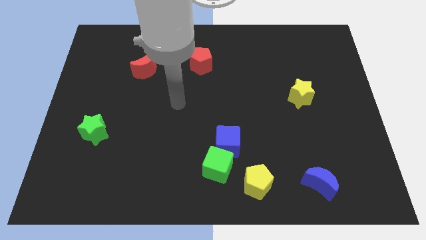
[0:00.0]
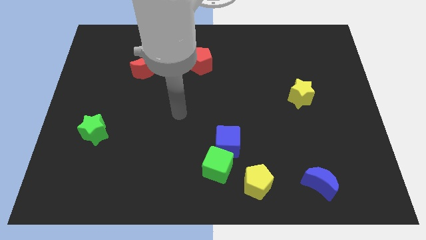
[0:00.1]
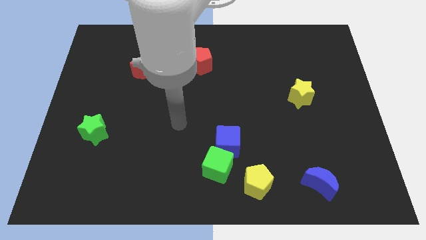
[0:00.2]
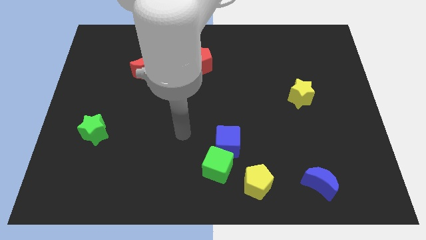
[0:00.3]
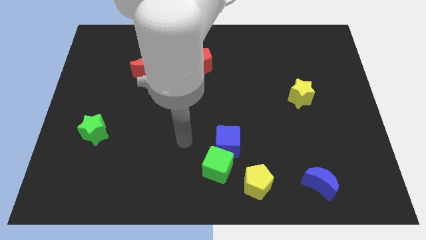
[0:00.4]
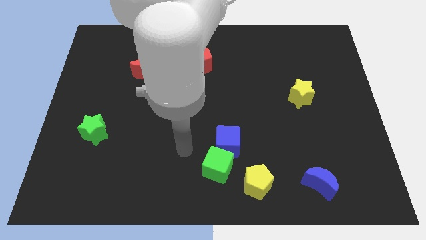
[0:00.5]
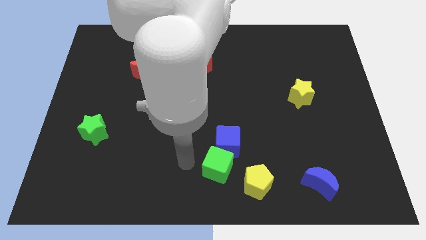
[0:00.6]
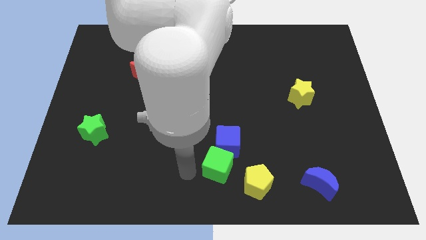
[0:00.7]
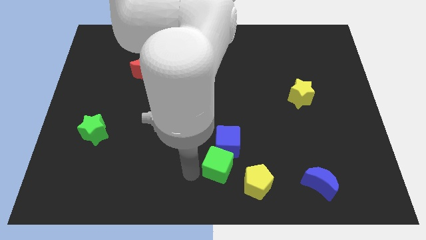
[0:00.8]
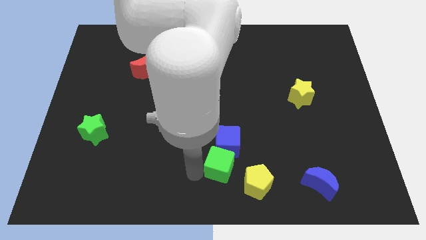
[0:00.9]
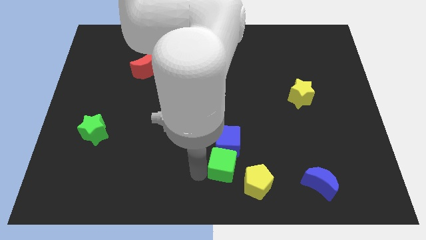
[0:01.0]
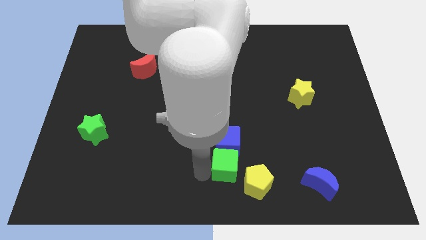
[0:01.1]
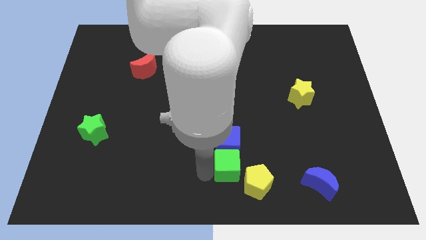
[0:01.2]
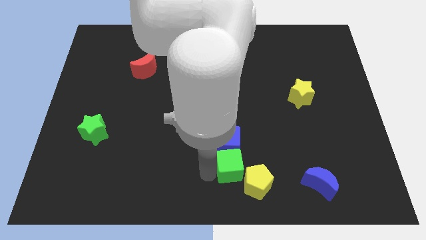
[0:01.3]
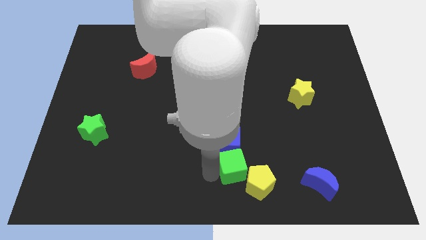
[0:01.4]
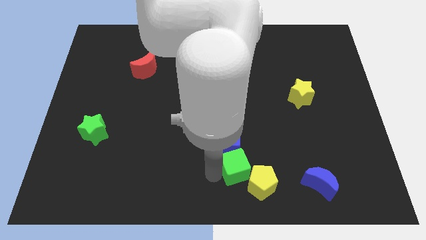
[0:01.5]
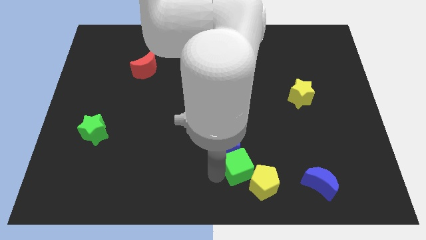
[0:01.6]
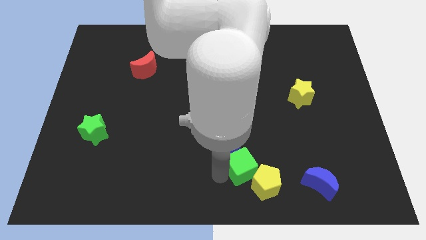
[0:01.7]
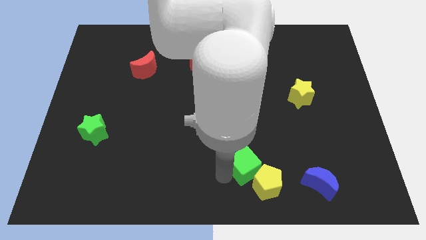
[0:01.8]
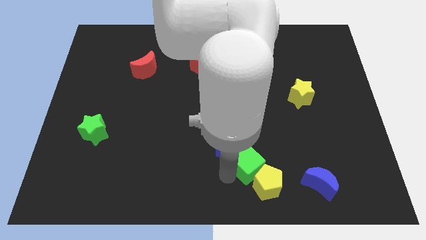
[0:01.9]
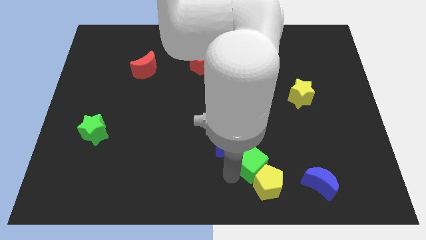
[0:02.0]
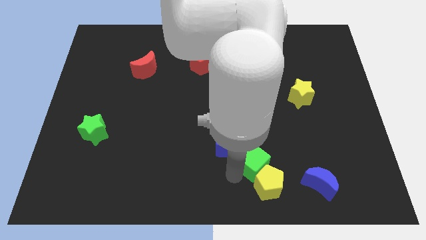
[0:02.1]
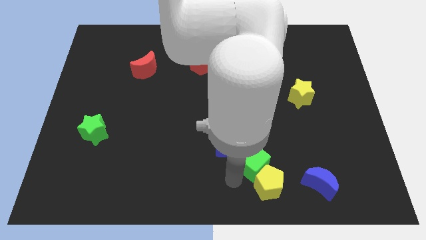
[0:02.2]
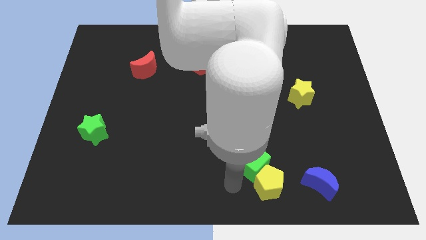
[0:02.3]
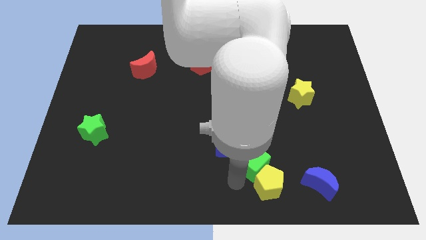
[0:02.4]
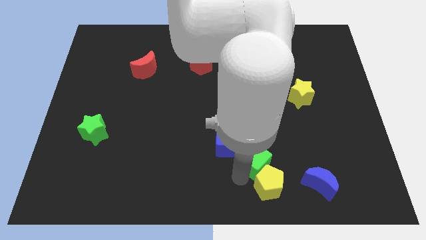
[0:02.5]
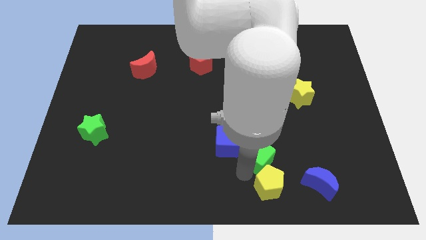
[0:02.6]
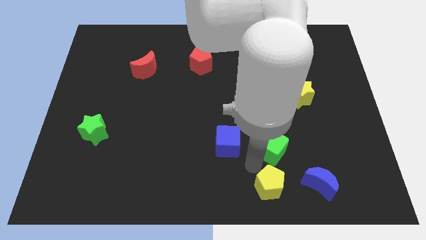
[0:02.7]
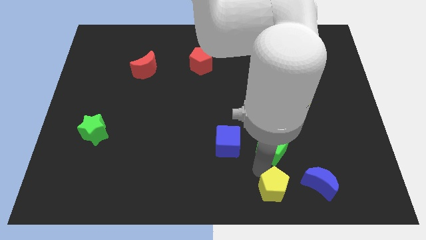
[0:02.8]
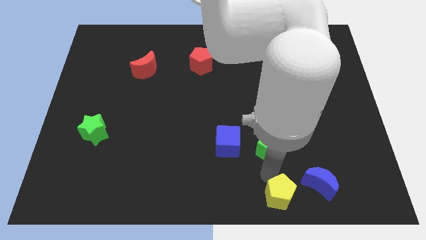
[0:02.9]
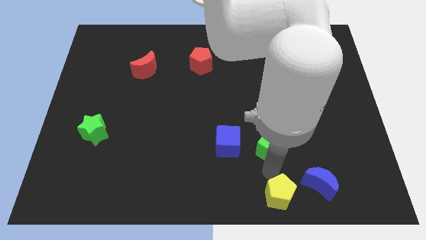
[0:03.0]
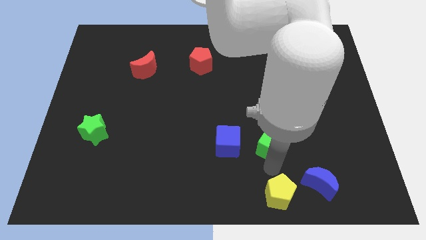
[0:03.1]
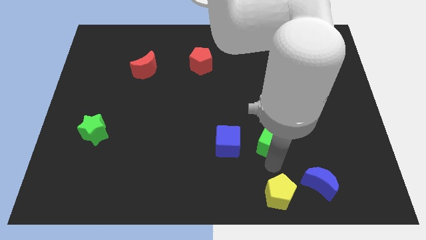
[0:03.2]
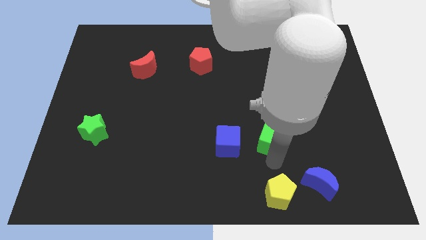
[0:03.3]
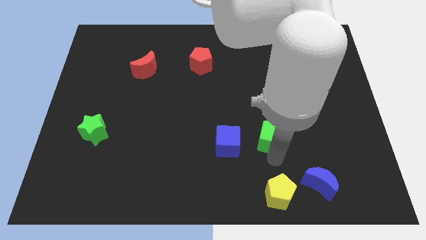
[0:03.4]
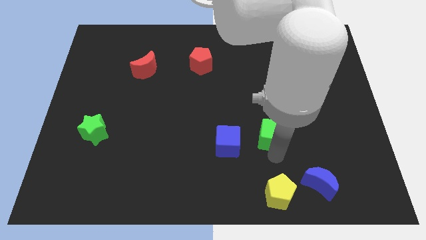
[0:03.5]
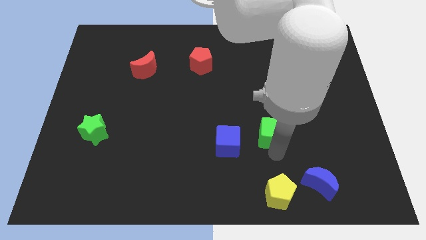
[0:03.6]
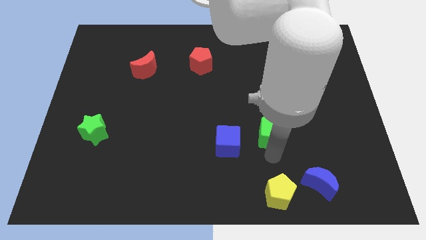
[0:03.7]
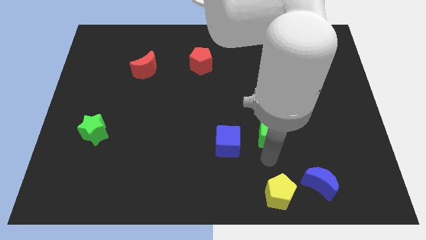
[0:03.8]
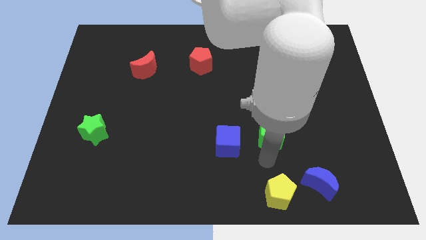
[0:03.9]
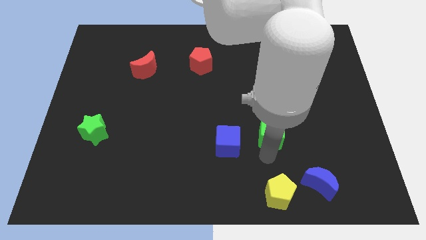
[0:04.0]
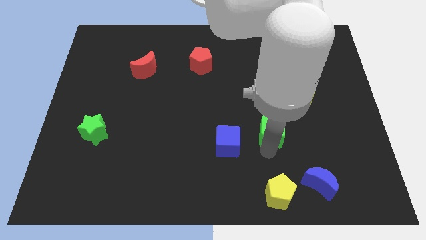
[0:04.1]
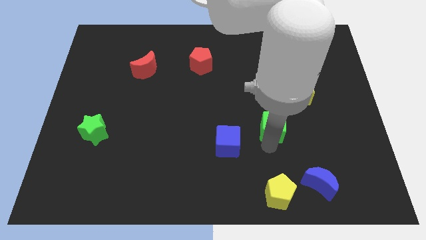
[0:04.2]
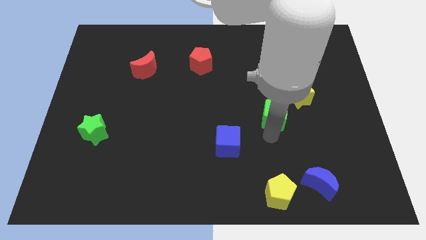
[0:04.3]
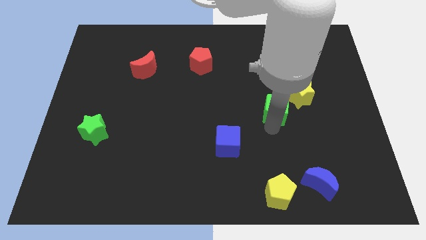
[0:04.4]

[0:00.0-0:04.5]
slide the green cube diagonally up and right

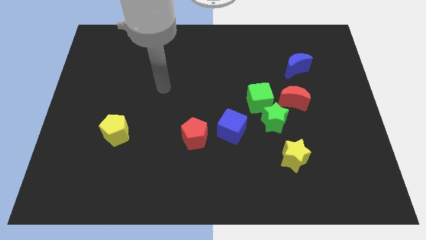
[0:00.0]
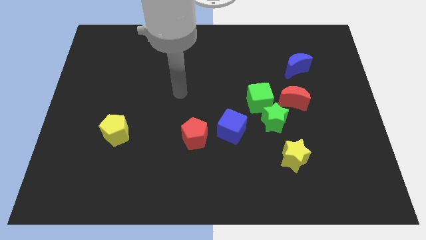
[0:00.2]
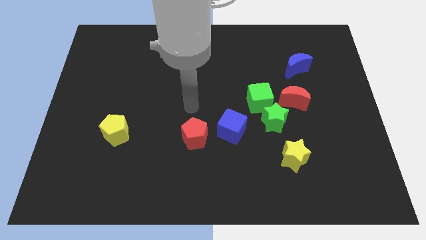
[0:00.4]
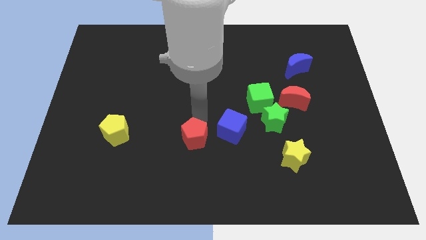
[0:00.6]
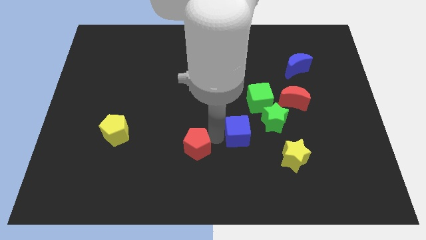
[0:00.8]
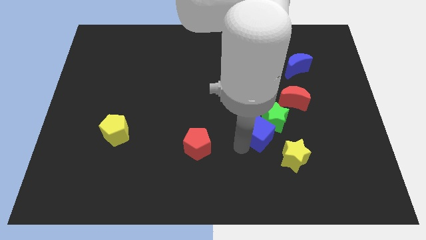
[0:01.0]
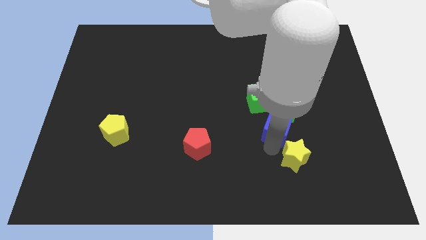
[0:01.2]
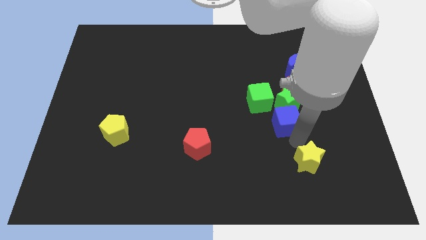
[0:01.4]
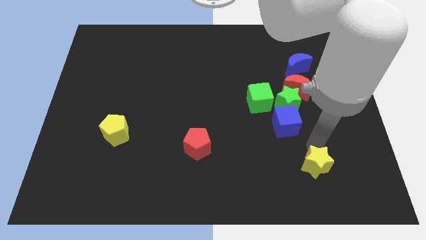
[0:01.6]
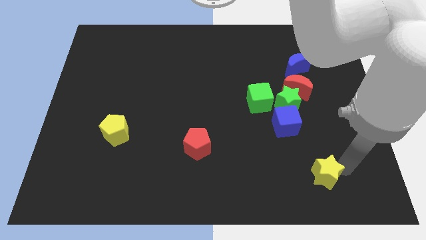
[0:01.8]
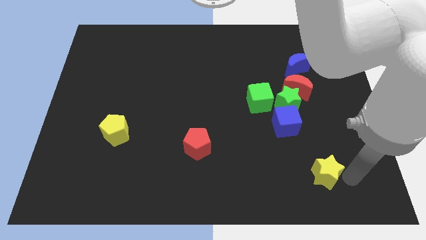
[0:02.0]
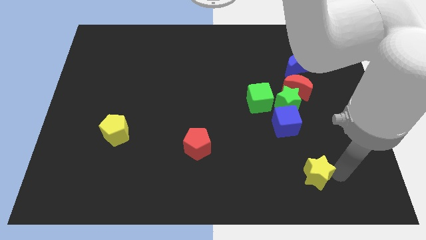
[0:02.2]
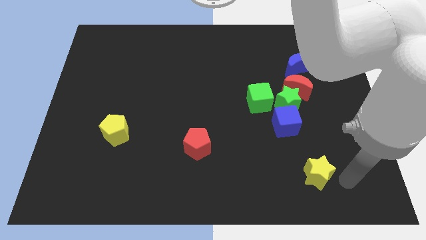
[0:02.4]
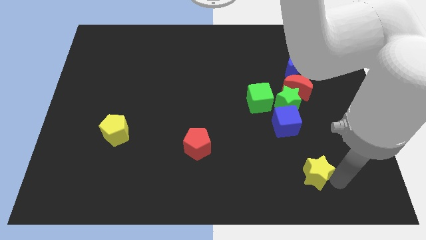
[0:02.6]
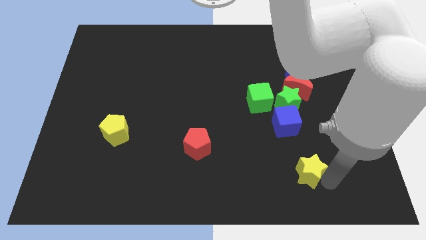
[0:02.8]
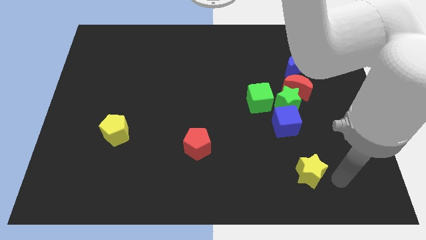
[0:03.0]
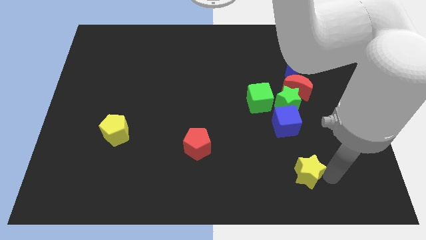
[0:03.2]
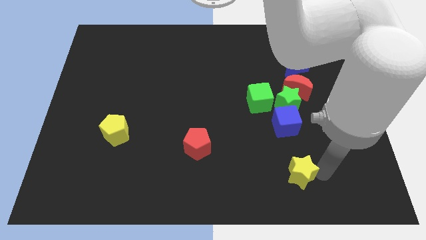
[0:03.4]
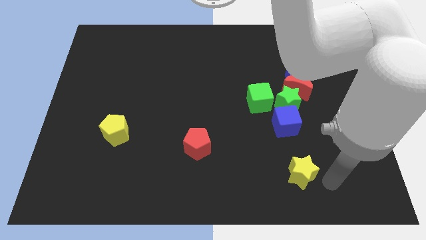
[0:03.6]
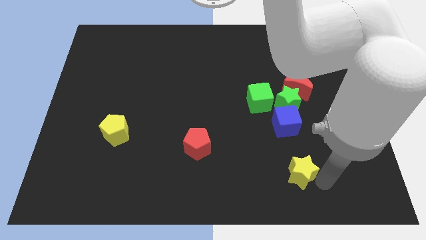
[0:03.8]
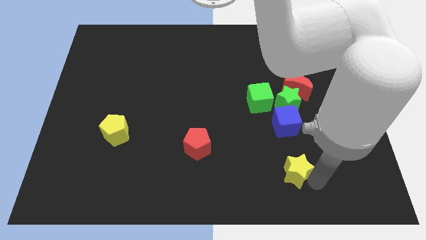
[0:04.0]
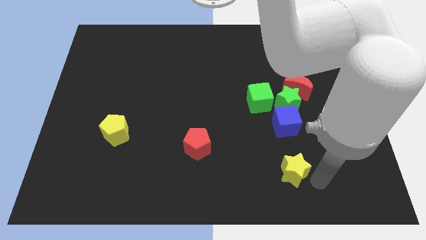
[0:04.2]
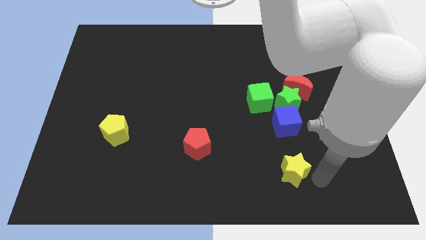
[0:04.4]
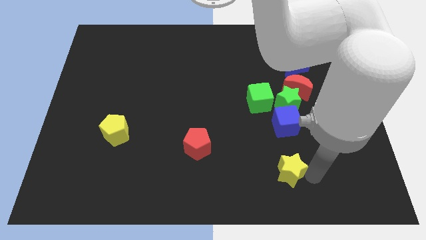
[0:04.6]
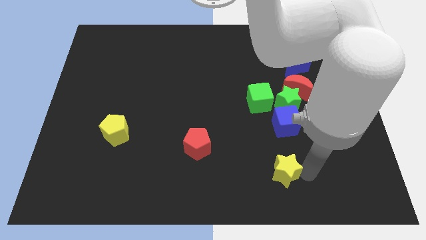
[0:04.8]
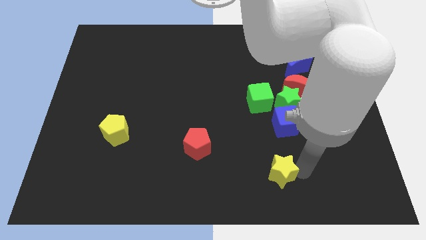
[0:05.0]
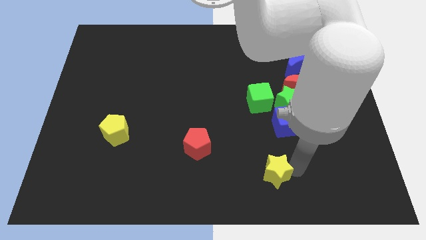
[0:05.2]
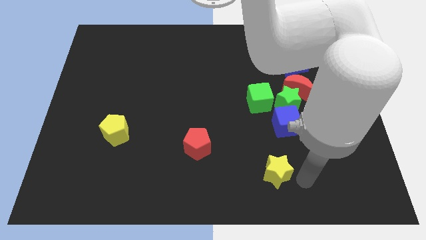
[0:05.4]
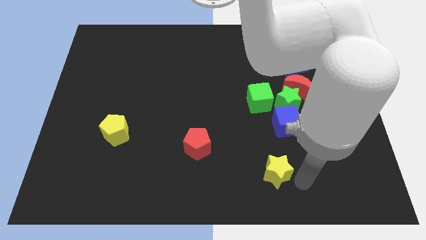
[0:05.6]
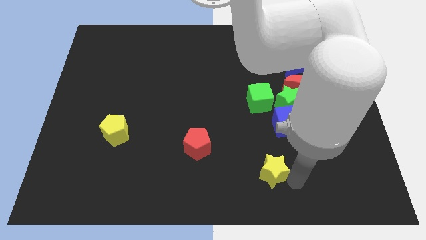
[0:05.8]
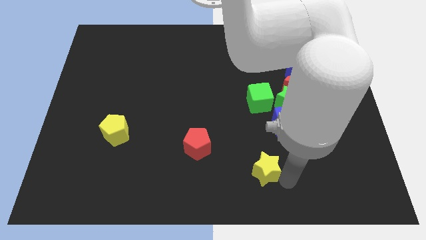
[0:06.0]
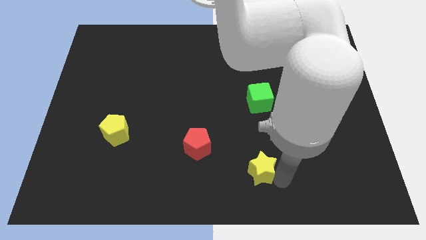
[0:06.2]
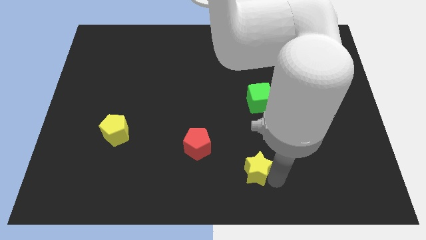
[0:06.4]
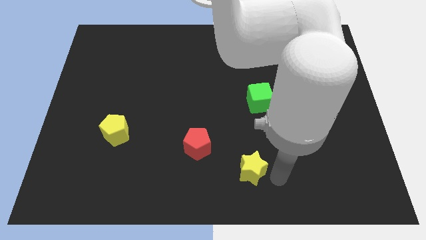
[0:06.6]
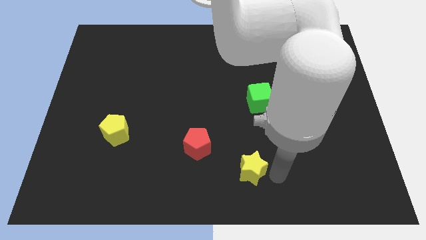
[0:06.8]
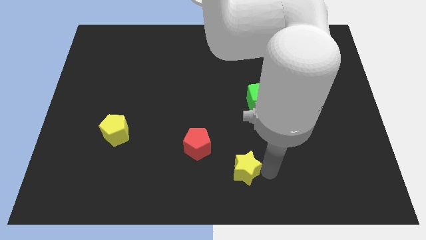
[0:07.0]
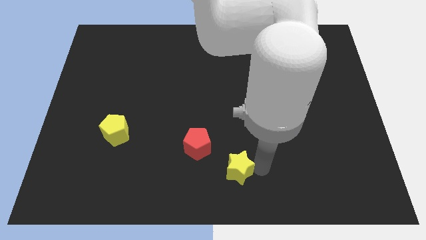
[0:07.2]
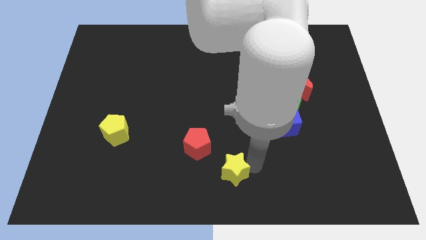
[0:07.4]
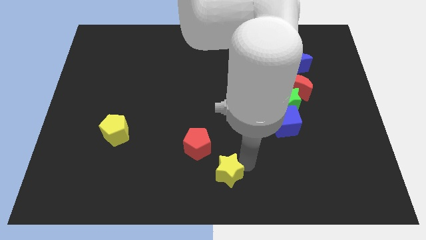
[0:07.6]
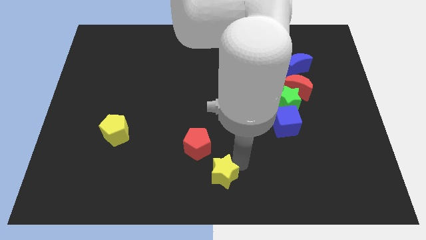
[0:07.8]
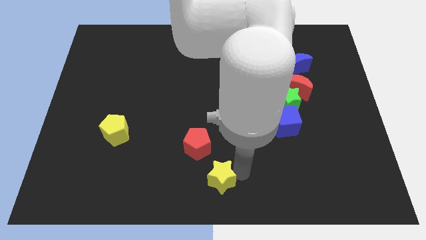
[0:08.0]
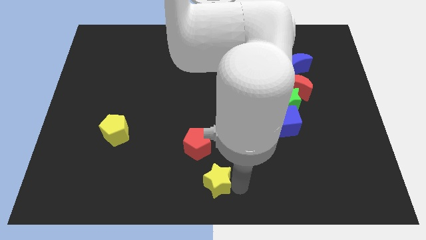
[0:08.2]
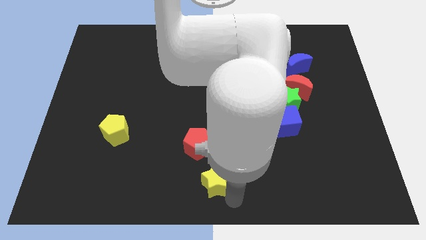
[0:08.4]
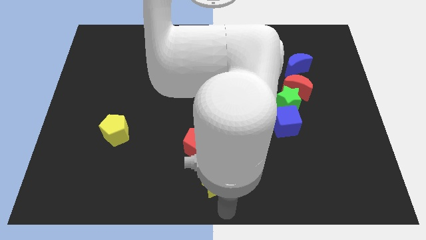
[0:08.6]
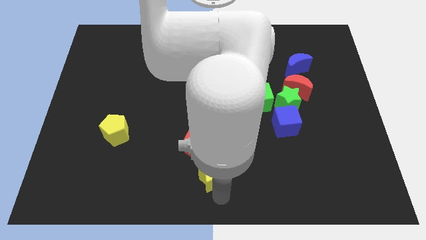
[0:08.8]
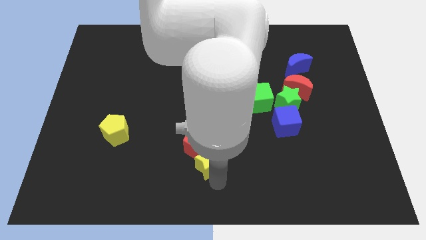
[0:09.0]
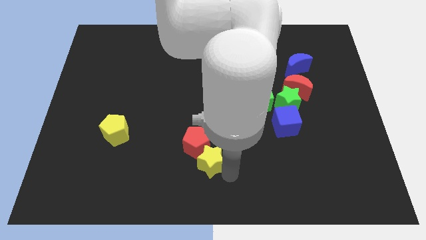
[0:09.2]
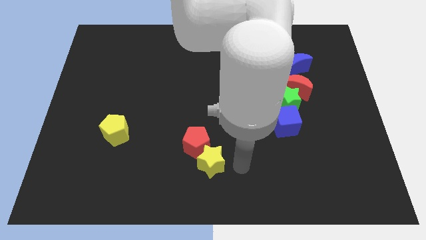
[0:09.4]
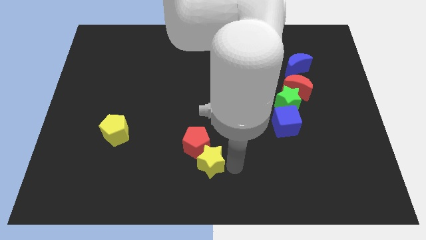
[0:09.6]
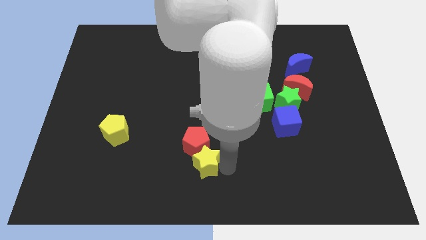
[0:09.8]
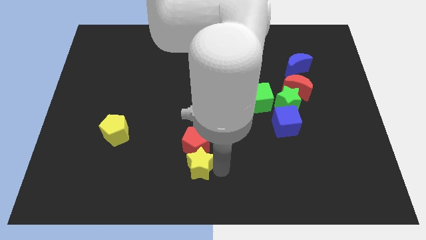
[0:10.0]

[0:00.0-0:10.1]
slide the yellow star to the left
